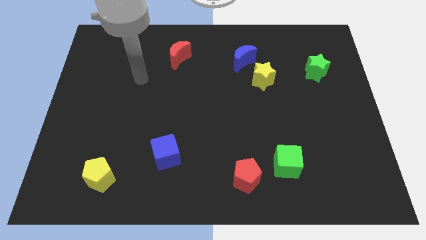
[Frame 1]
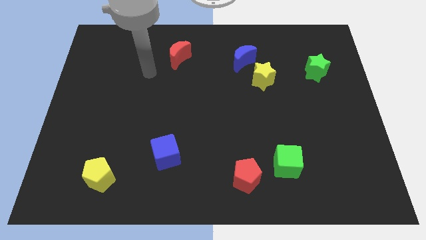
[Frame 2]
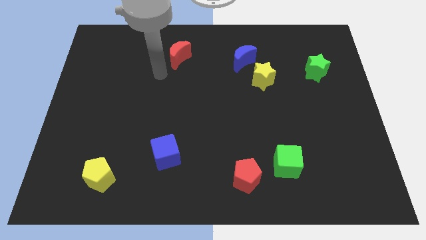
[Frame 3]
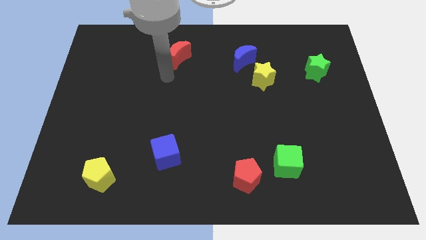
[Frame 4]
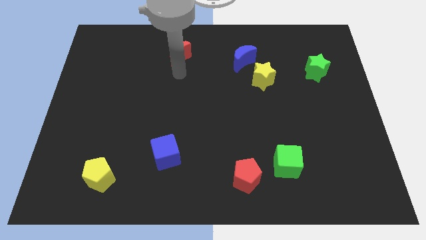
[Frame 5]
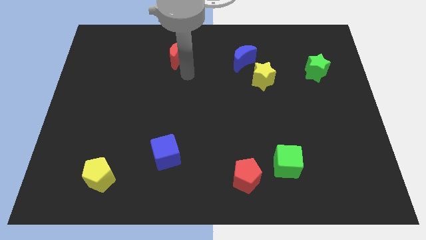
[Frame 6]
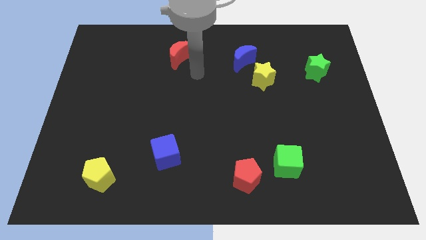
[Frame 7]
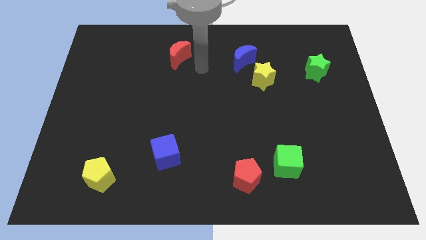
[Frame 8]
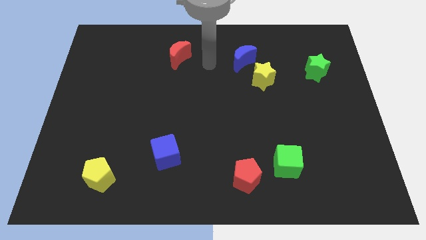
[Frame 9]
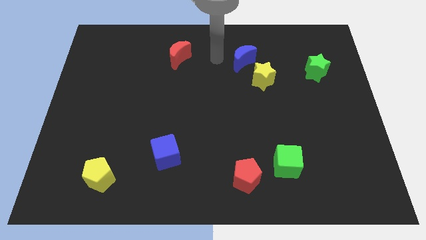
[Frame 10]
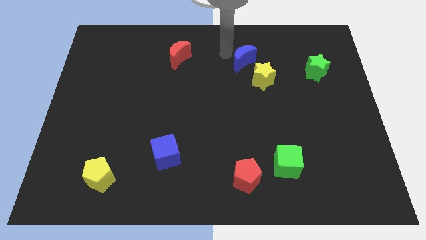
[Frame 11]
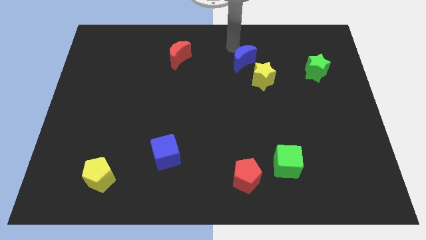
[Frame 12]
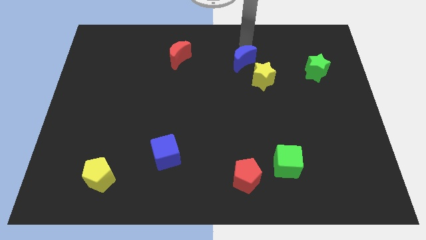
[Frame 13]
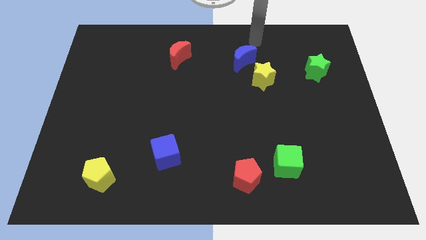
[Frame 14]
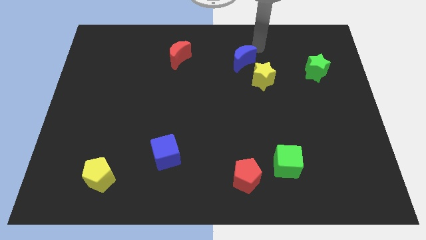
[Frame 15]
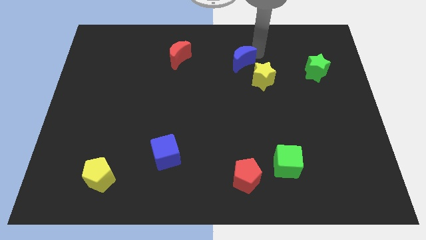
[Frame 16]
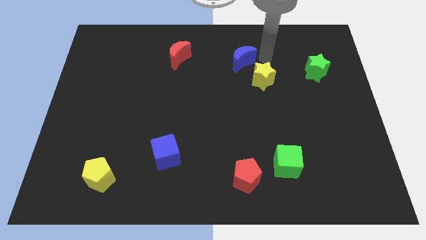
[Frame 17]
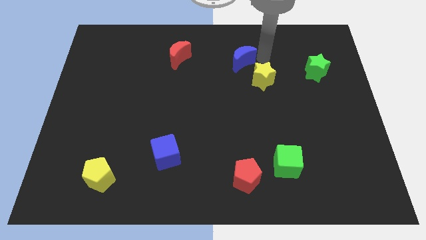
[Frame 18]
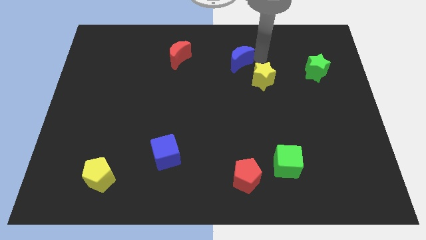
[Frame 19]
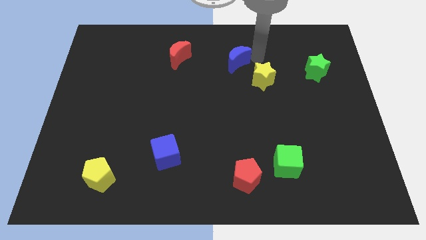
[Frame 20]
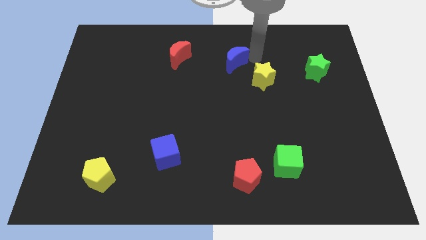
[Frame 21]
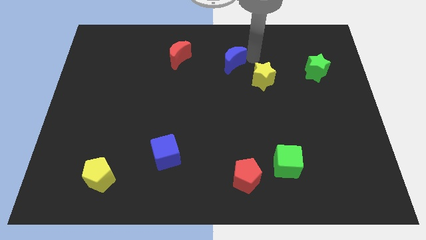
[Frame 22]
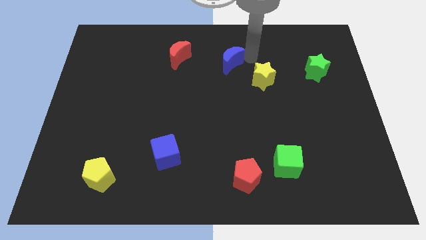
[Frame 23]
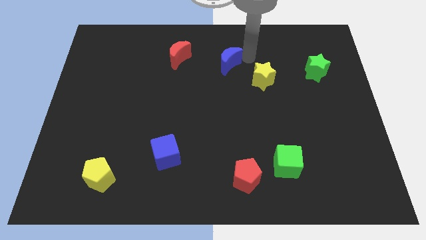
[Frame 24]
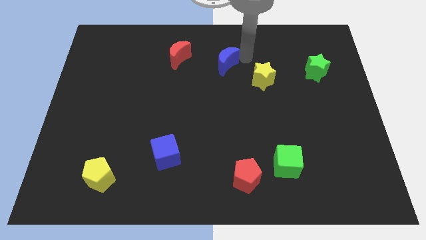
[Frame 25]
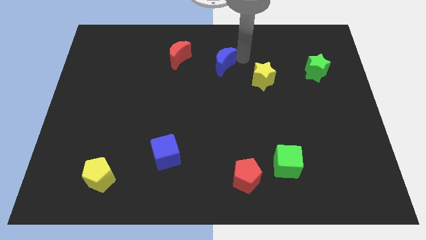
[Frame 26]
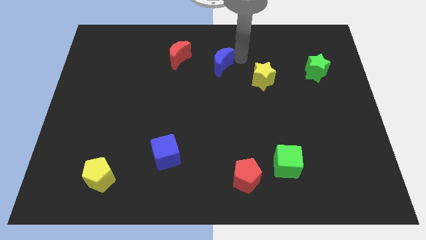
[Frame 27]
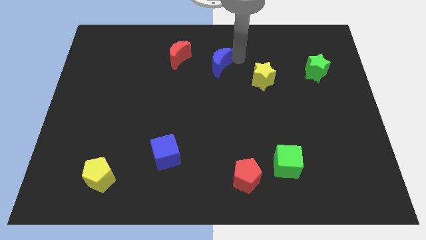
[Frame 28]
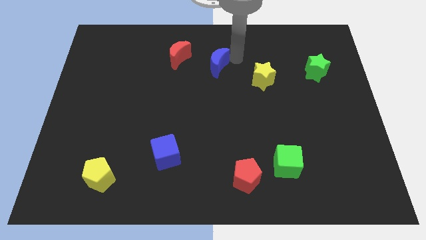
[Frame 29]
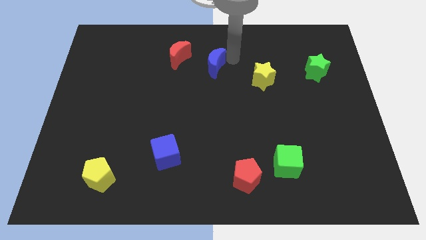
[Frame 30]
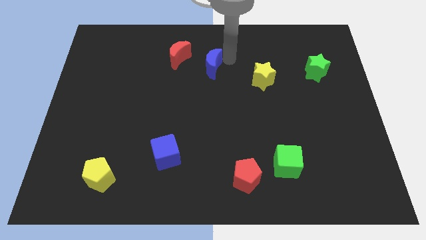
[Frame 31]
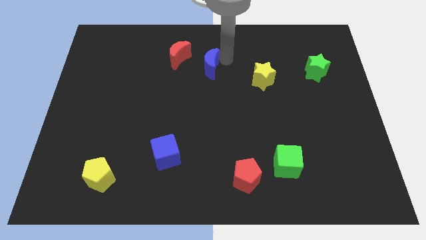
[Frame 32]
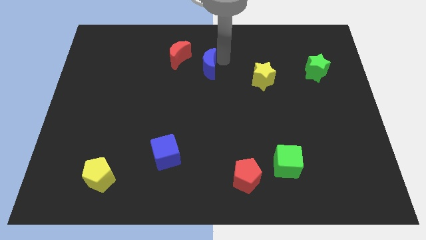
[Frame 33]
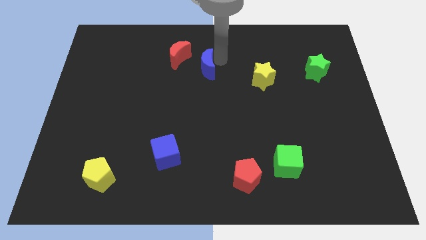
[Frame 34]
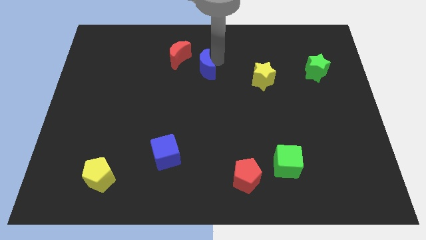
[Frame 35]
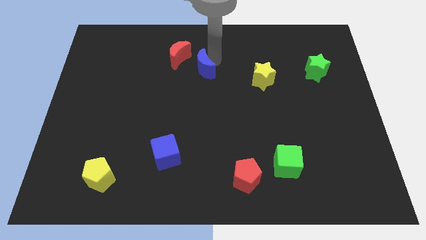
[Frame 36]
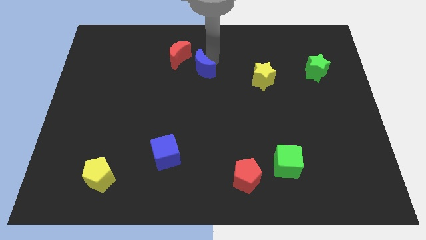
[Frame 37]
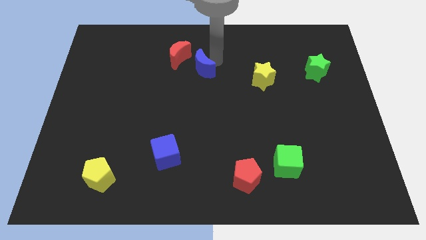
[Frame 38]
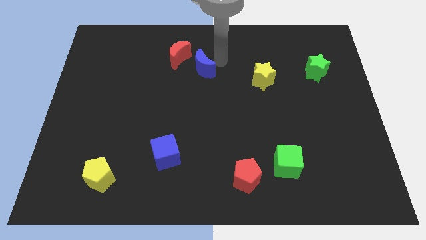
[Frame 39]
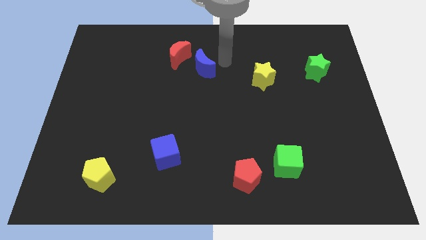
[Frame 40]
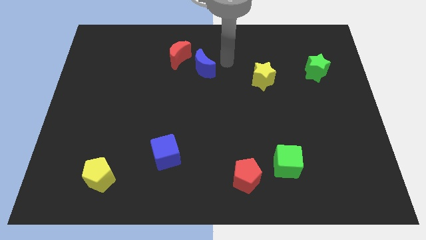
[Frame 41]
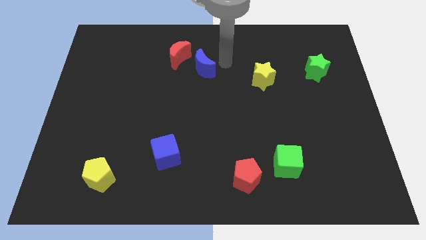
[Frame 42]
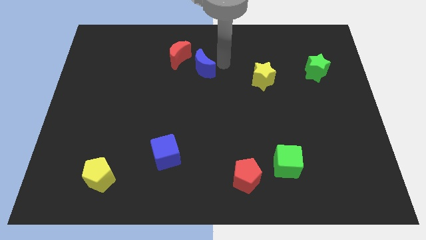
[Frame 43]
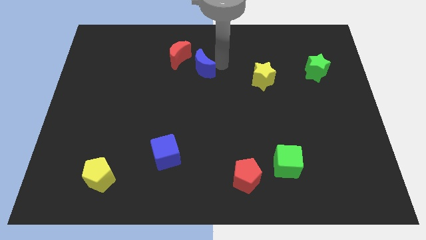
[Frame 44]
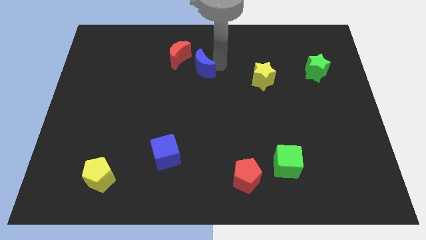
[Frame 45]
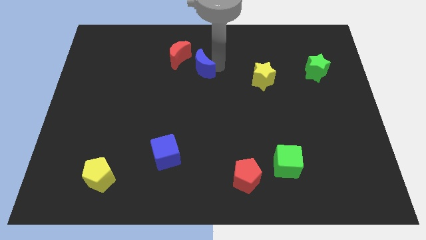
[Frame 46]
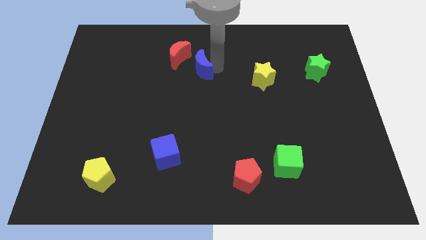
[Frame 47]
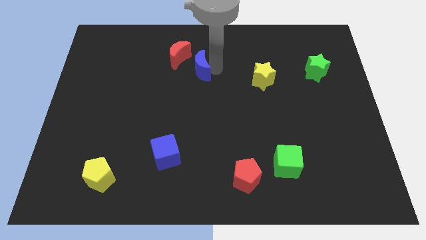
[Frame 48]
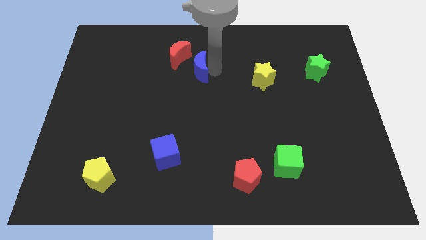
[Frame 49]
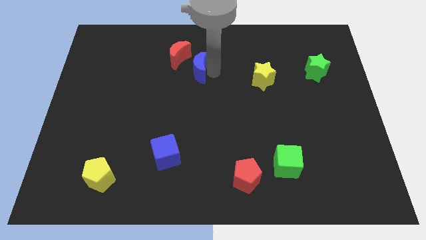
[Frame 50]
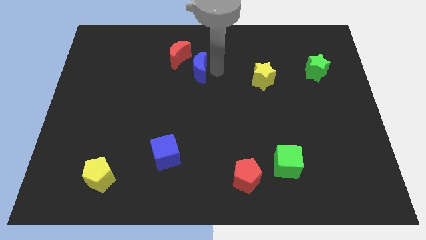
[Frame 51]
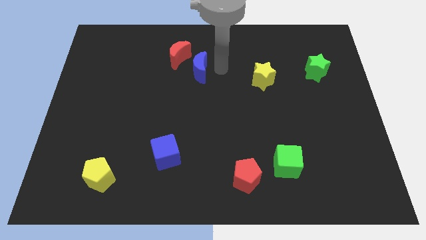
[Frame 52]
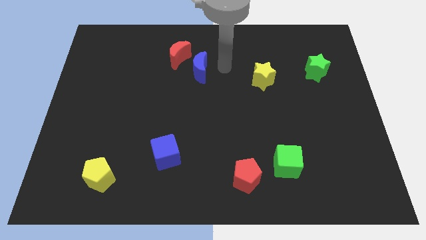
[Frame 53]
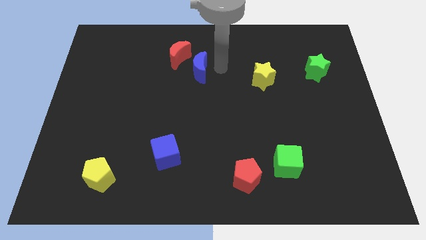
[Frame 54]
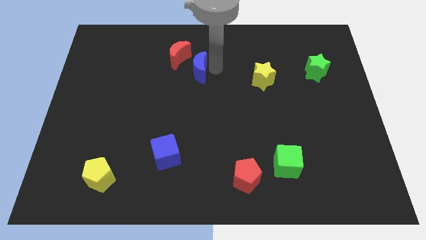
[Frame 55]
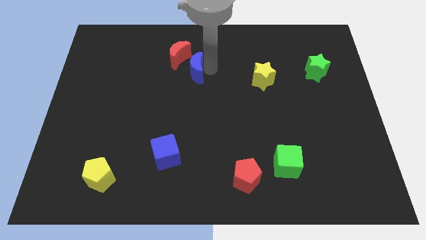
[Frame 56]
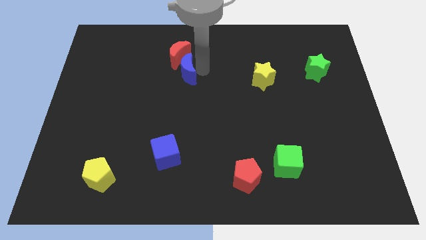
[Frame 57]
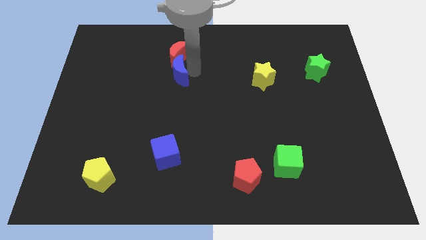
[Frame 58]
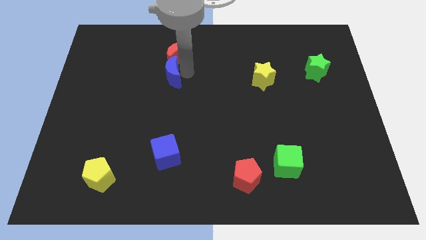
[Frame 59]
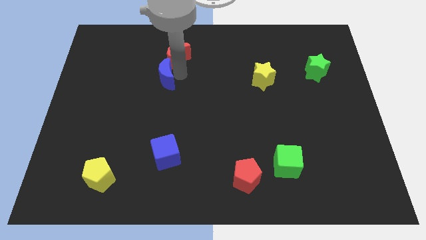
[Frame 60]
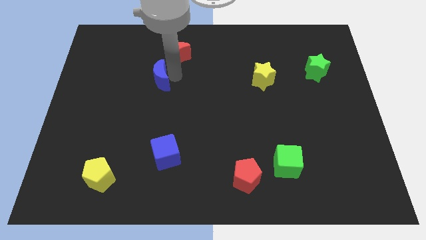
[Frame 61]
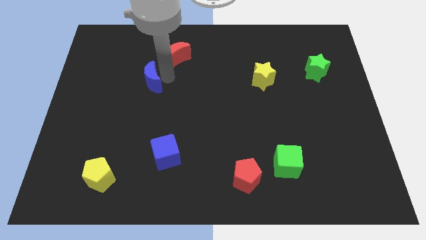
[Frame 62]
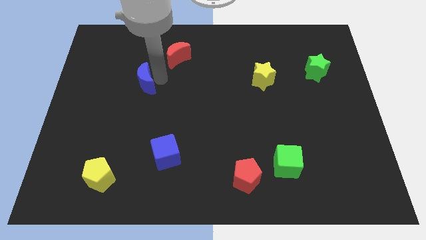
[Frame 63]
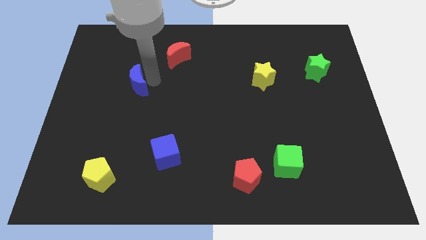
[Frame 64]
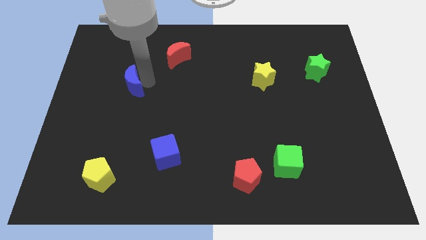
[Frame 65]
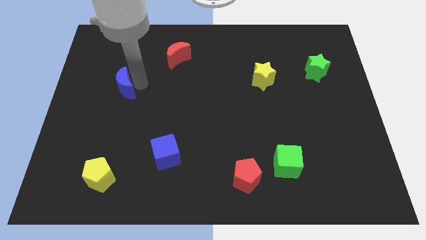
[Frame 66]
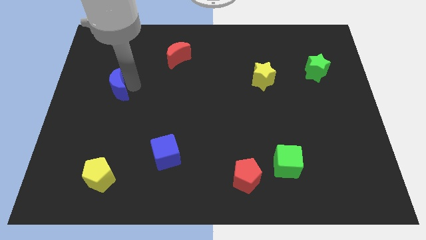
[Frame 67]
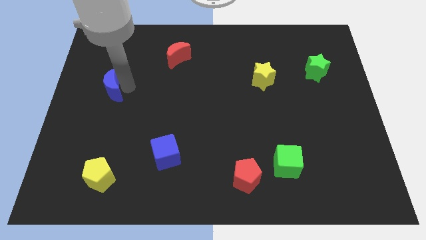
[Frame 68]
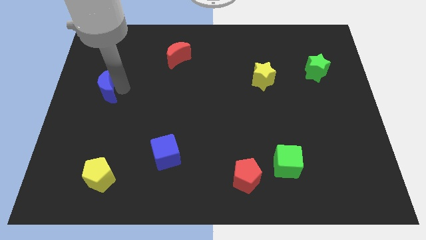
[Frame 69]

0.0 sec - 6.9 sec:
push the blue moon to the center left
